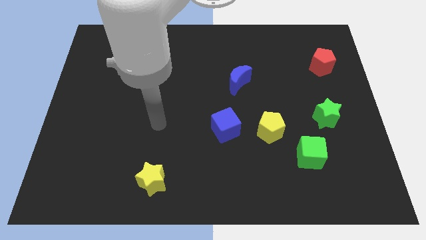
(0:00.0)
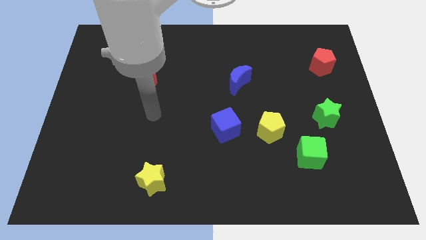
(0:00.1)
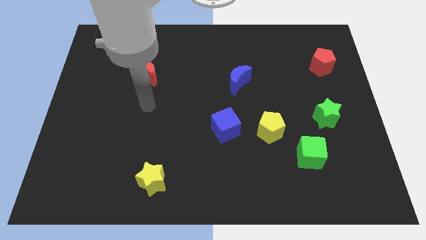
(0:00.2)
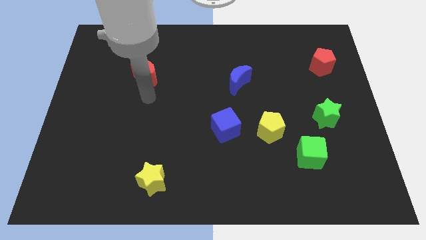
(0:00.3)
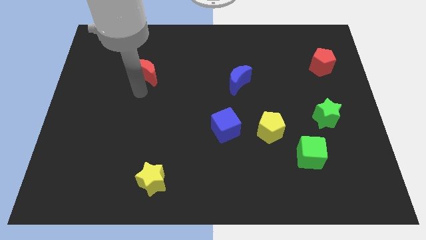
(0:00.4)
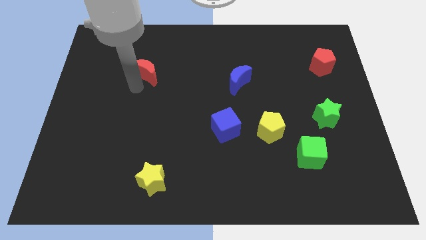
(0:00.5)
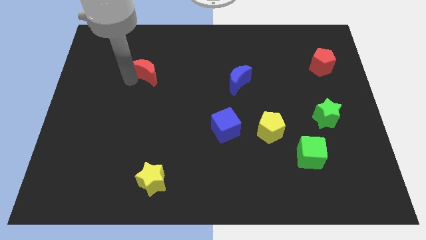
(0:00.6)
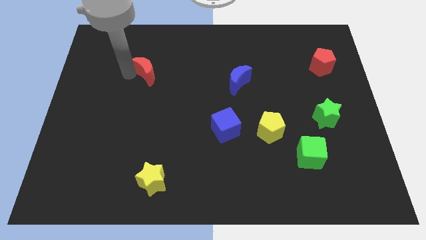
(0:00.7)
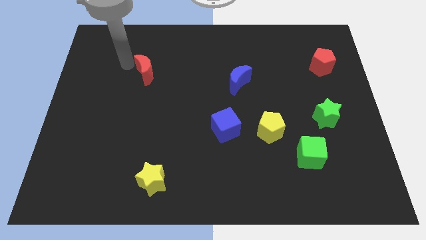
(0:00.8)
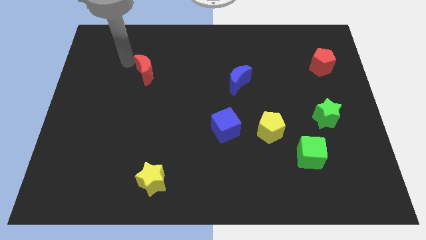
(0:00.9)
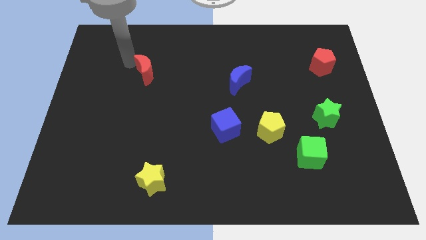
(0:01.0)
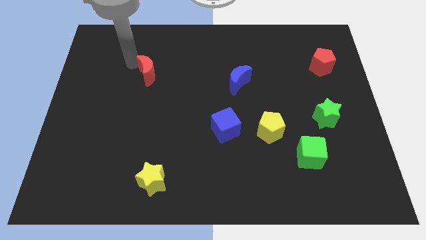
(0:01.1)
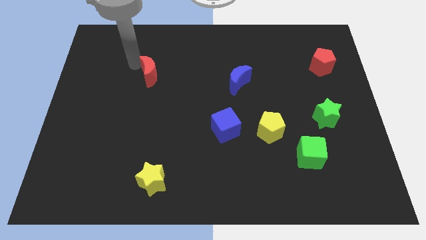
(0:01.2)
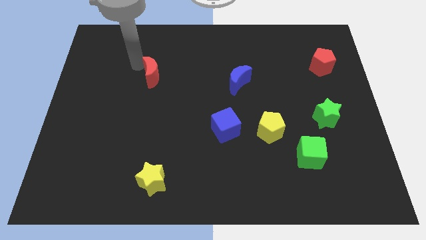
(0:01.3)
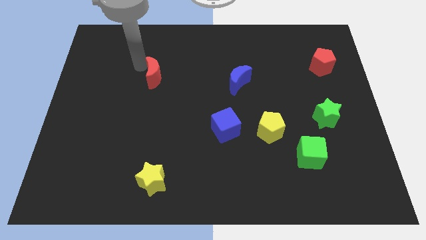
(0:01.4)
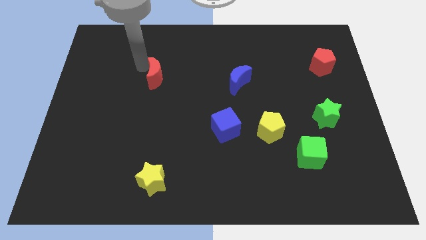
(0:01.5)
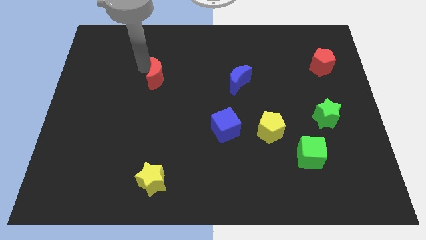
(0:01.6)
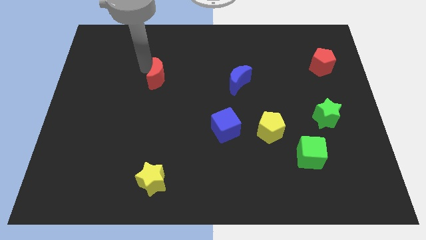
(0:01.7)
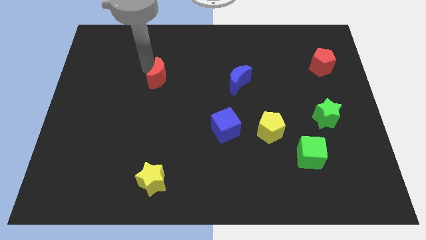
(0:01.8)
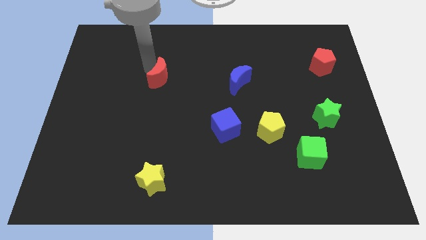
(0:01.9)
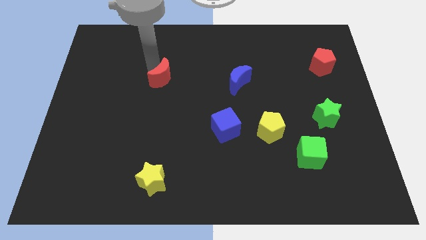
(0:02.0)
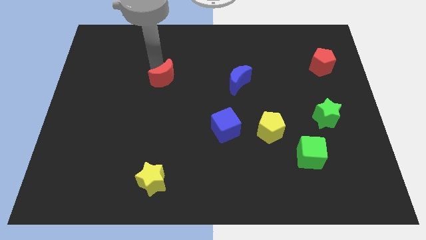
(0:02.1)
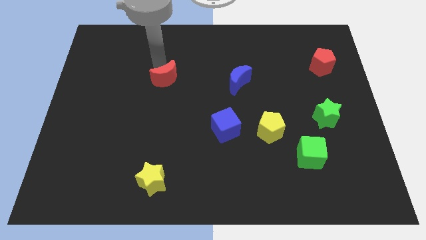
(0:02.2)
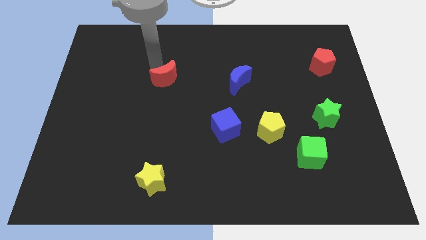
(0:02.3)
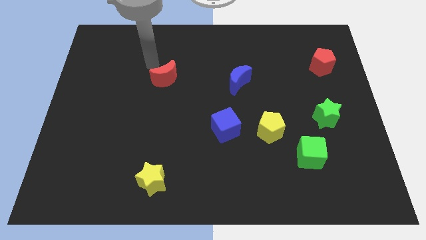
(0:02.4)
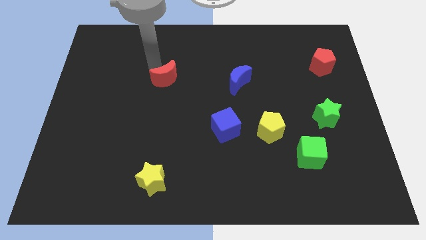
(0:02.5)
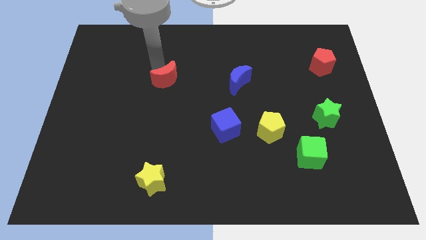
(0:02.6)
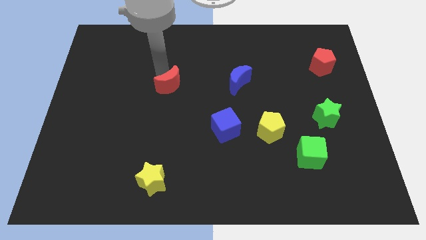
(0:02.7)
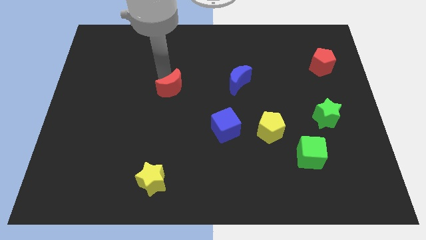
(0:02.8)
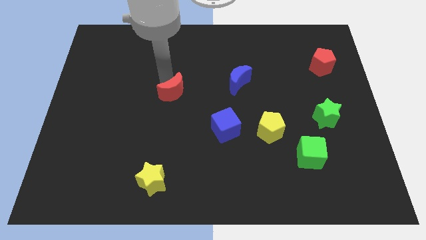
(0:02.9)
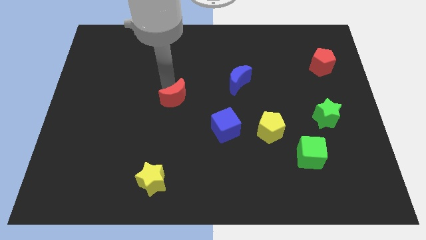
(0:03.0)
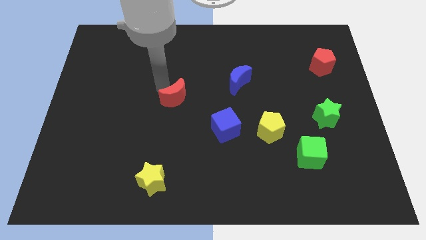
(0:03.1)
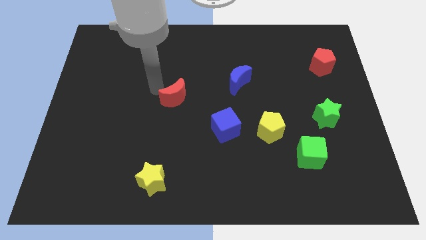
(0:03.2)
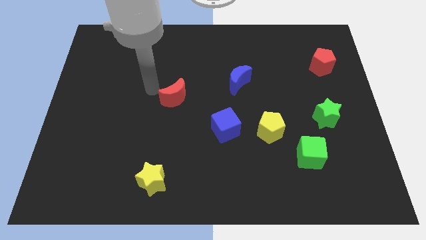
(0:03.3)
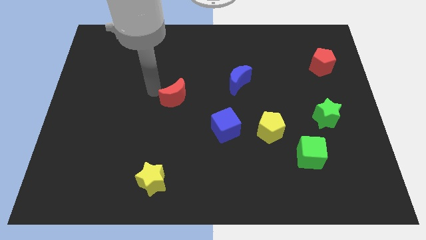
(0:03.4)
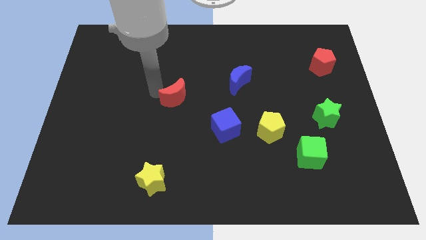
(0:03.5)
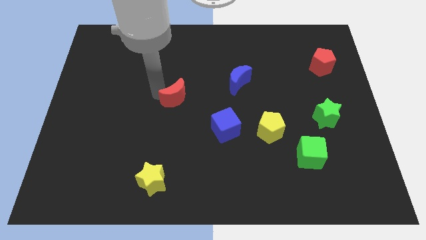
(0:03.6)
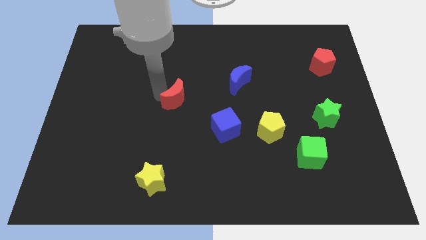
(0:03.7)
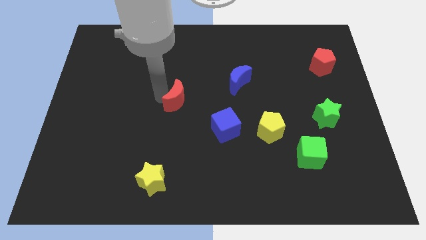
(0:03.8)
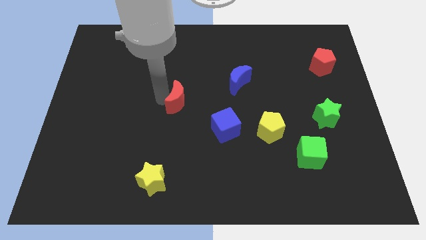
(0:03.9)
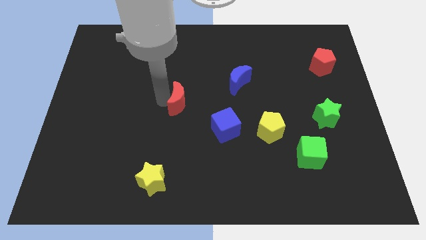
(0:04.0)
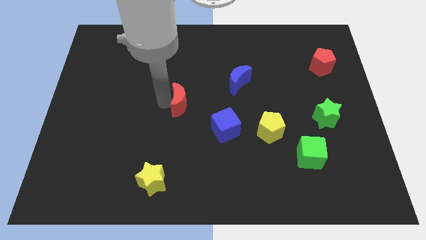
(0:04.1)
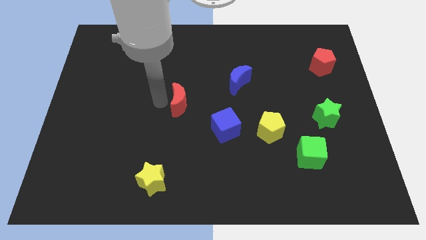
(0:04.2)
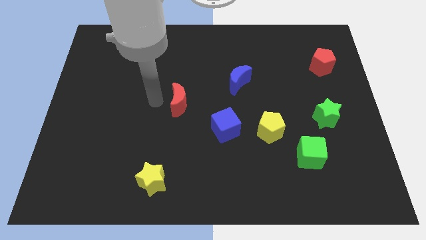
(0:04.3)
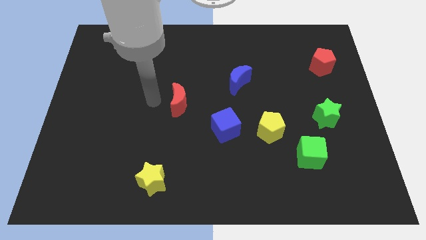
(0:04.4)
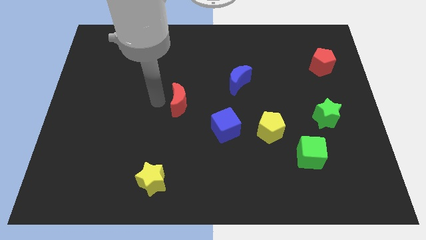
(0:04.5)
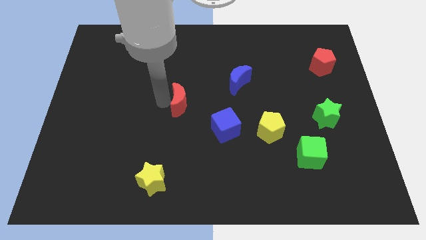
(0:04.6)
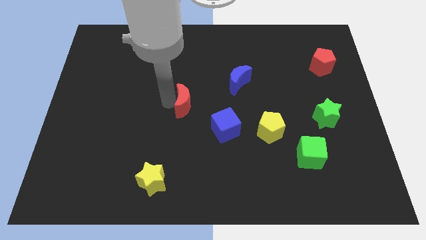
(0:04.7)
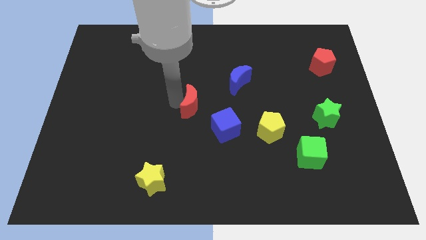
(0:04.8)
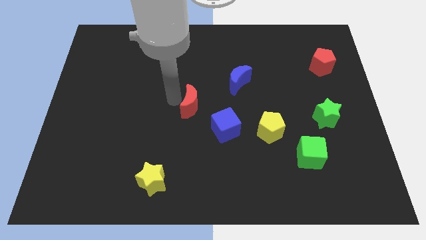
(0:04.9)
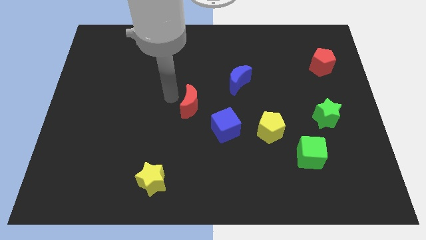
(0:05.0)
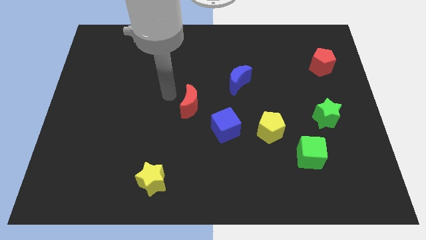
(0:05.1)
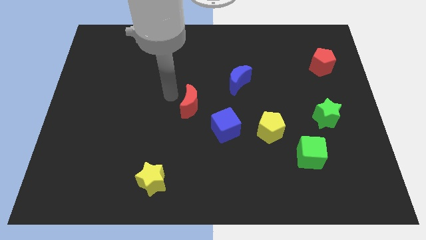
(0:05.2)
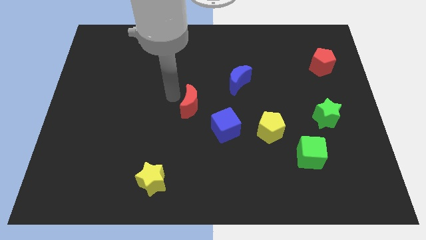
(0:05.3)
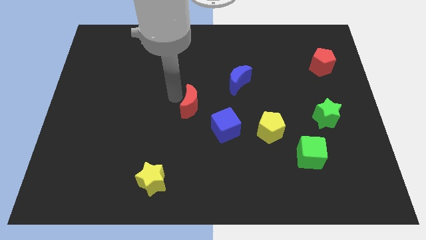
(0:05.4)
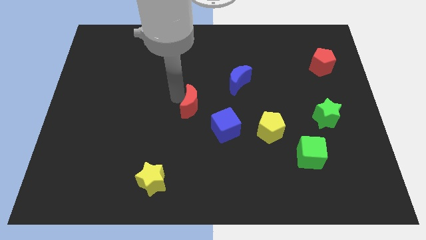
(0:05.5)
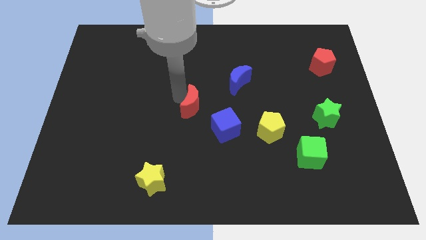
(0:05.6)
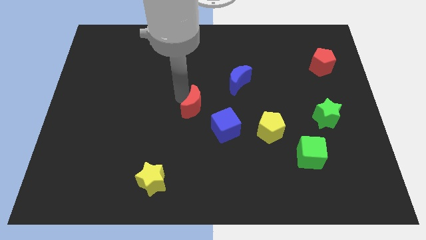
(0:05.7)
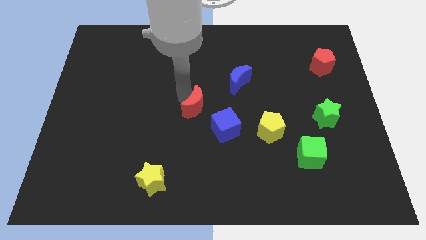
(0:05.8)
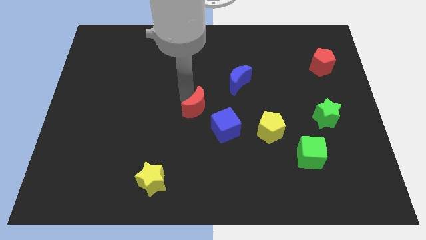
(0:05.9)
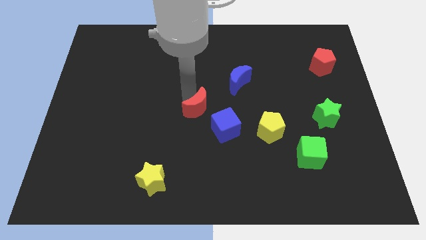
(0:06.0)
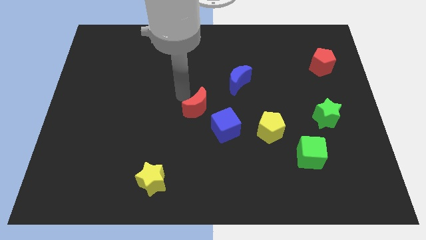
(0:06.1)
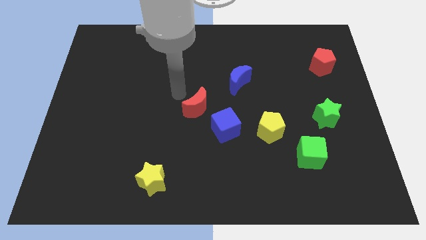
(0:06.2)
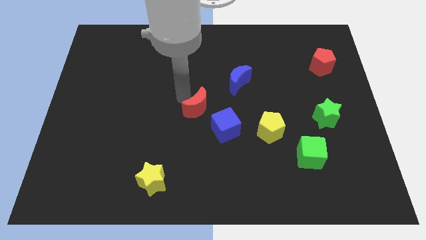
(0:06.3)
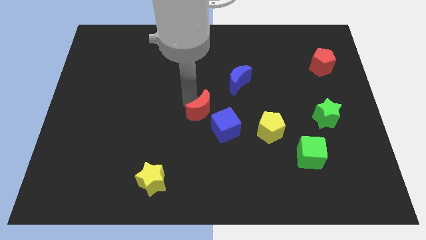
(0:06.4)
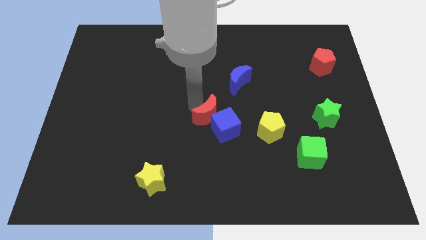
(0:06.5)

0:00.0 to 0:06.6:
put the red moon next to the blue cube
